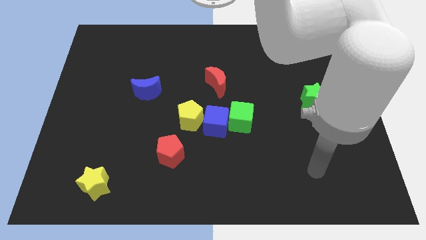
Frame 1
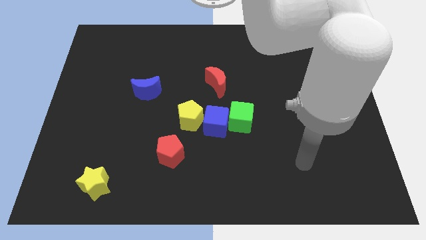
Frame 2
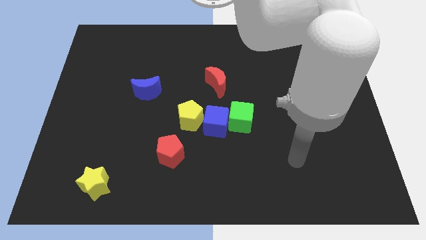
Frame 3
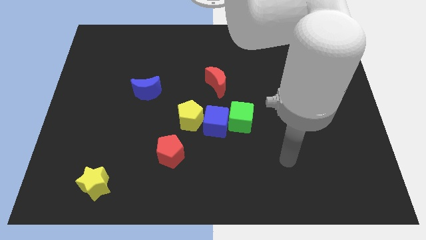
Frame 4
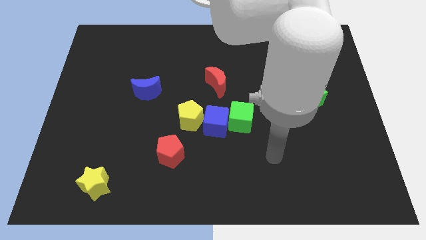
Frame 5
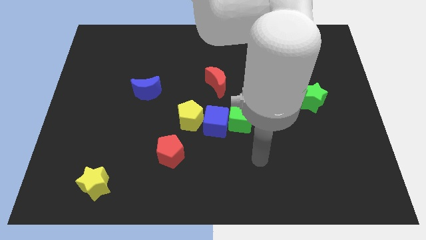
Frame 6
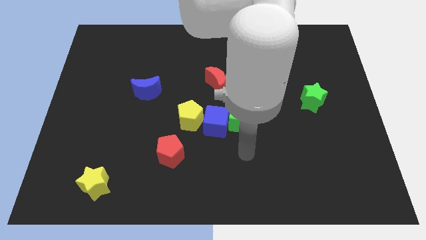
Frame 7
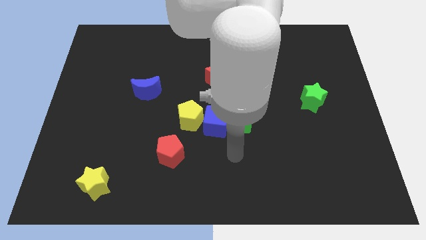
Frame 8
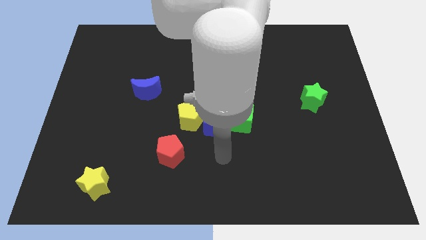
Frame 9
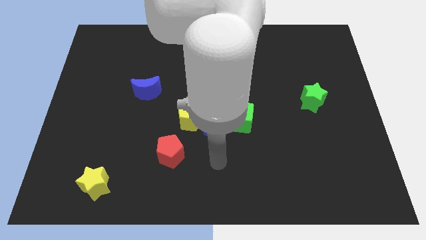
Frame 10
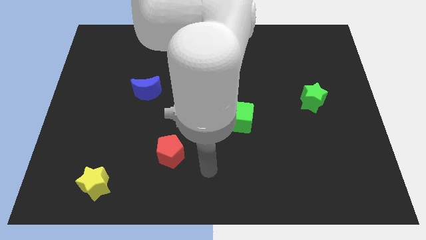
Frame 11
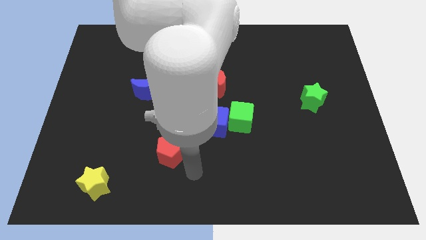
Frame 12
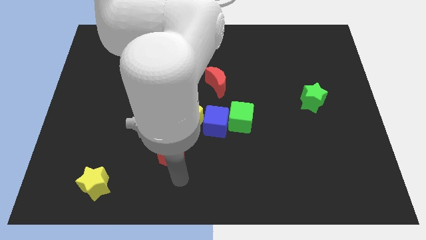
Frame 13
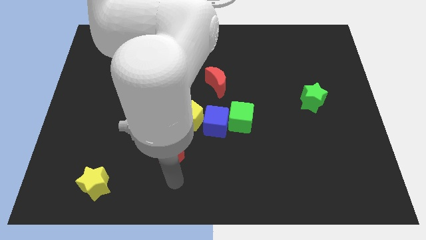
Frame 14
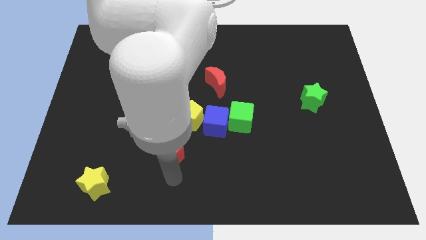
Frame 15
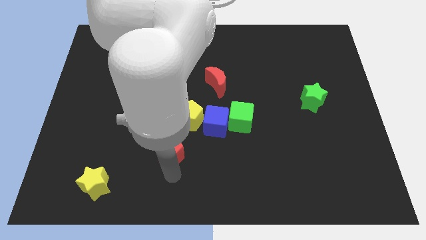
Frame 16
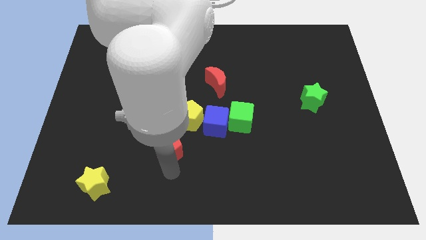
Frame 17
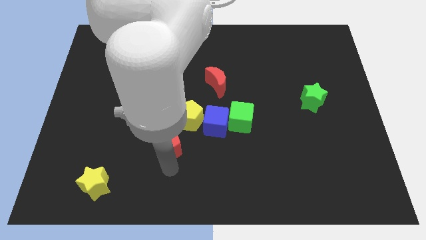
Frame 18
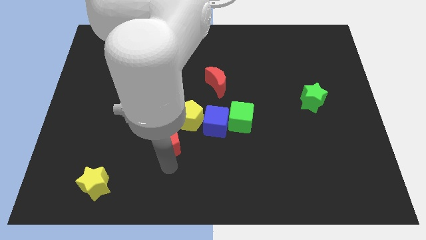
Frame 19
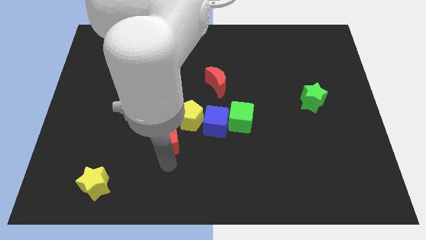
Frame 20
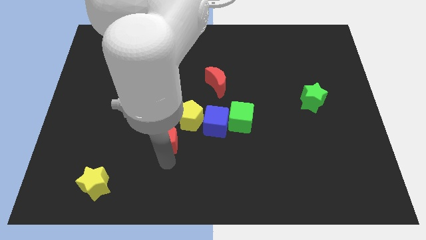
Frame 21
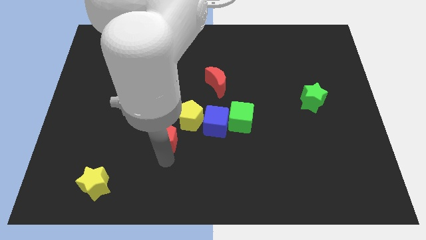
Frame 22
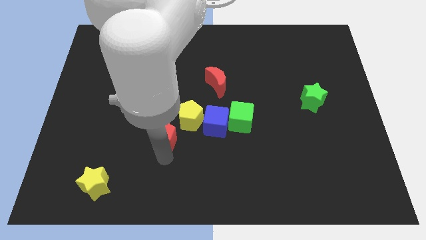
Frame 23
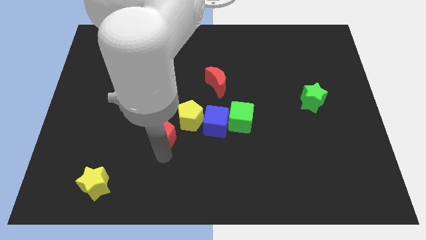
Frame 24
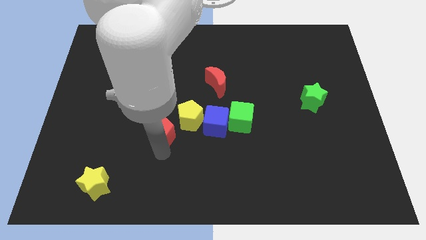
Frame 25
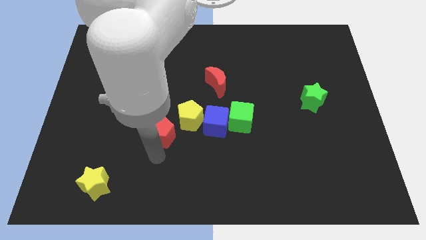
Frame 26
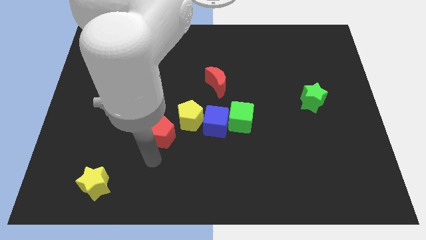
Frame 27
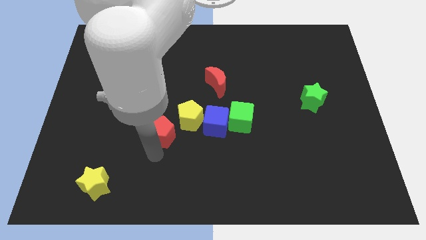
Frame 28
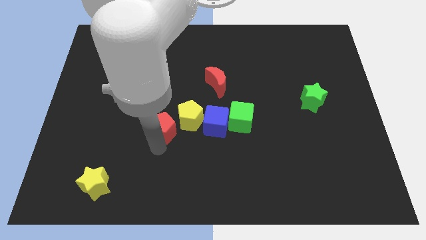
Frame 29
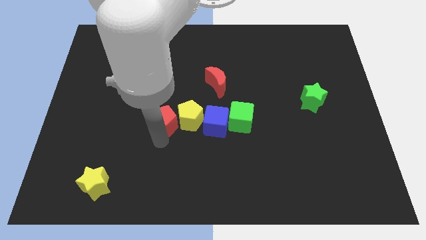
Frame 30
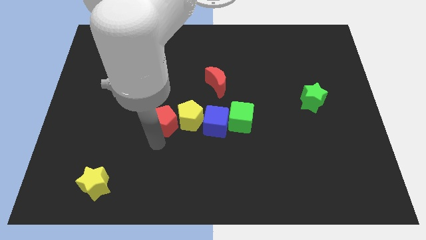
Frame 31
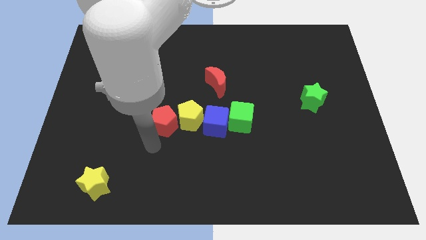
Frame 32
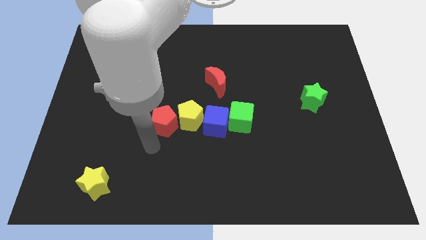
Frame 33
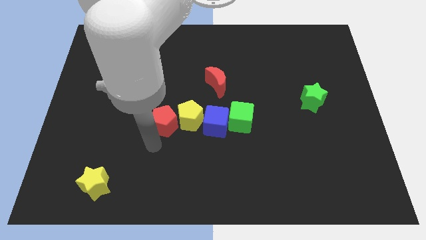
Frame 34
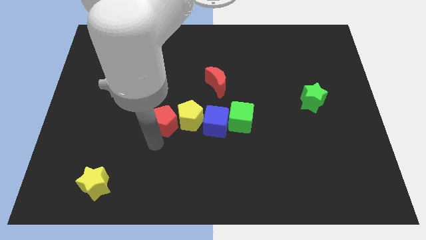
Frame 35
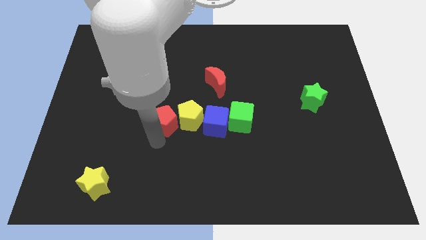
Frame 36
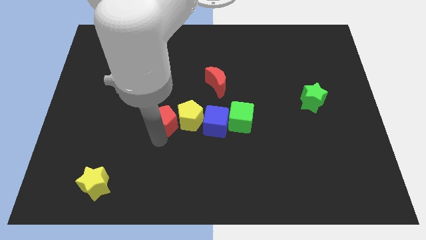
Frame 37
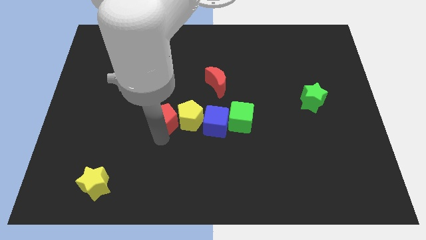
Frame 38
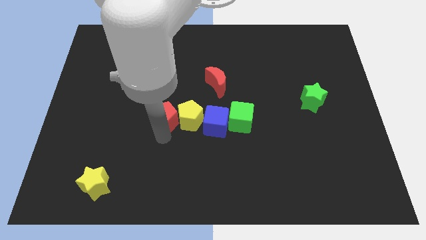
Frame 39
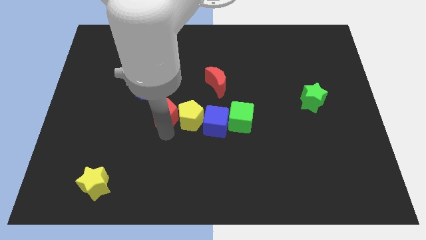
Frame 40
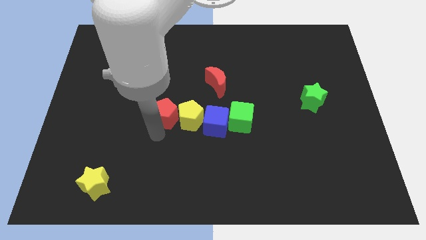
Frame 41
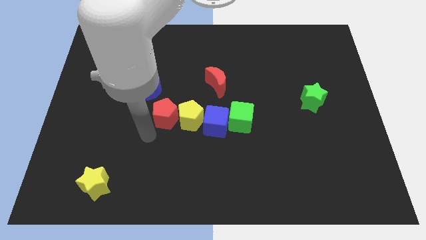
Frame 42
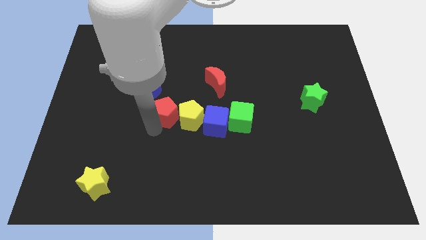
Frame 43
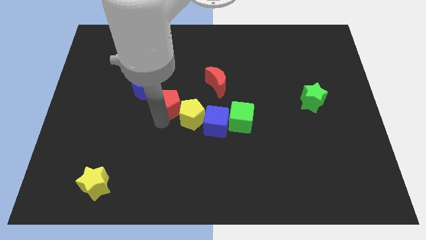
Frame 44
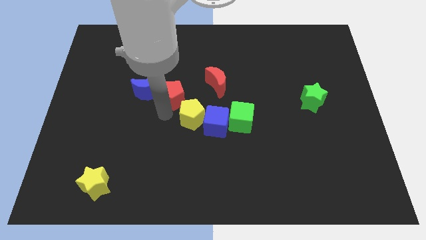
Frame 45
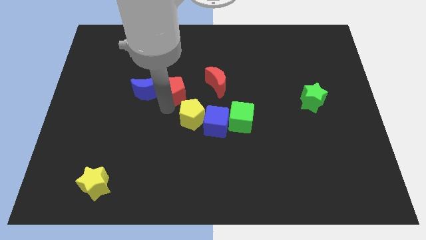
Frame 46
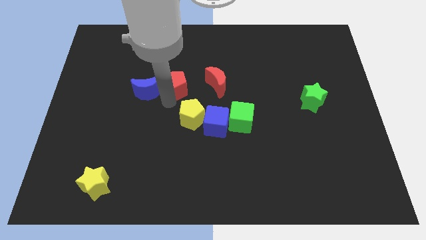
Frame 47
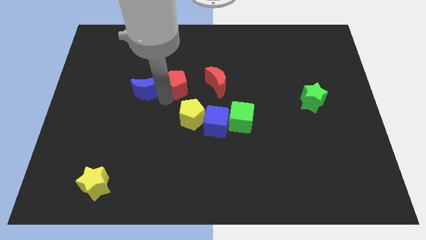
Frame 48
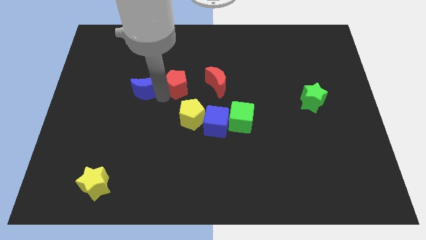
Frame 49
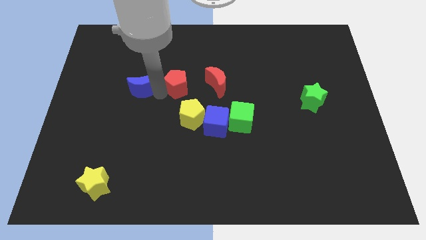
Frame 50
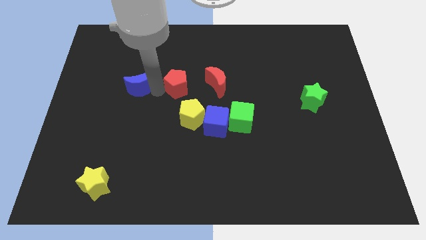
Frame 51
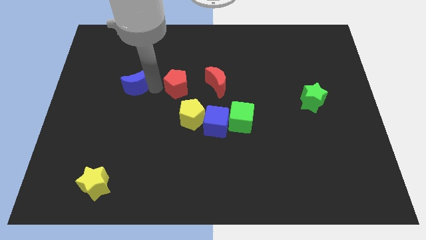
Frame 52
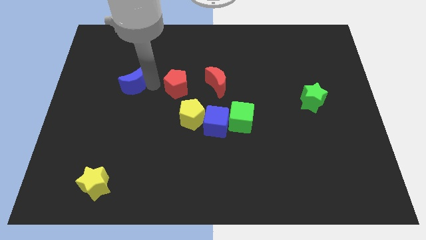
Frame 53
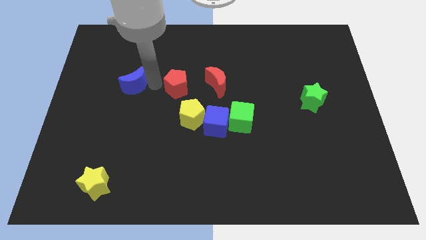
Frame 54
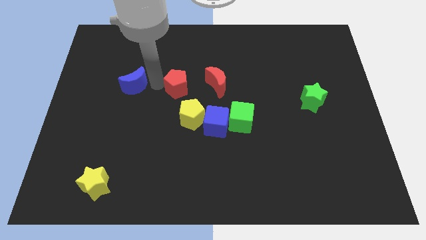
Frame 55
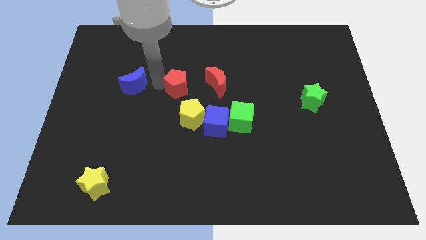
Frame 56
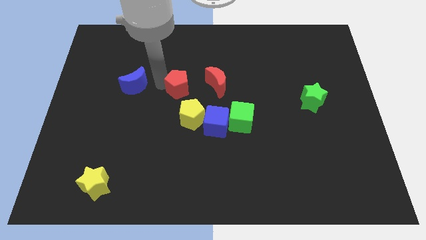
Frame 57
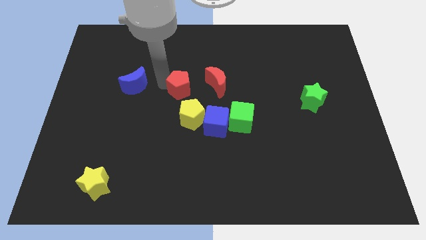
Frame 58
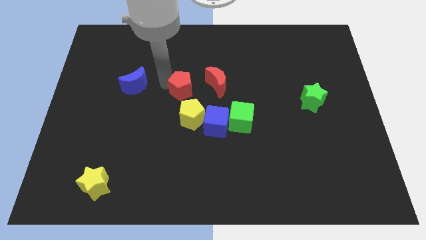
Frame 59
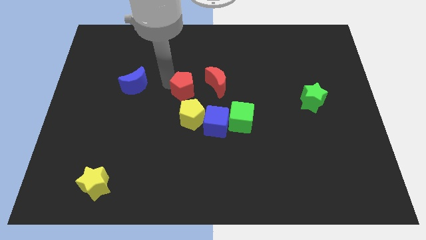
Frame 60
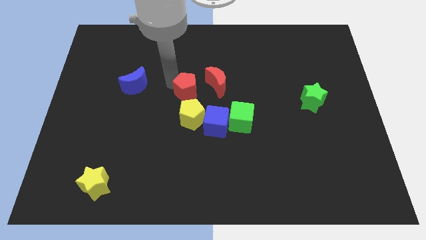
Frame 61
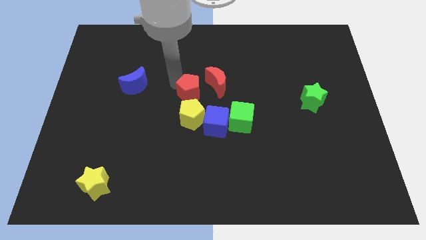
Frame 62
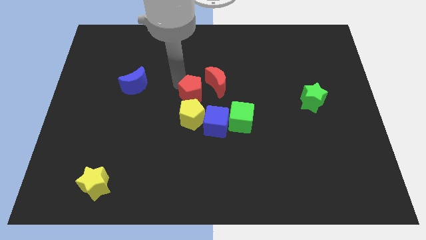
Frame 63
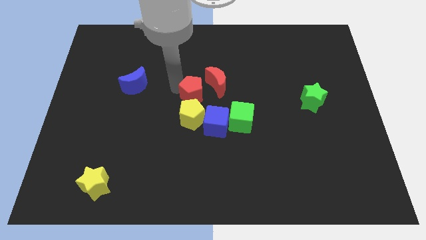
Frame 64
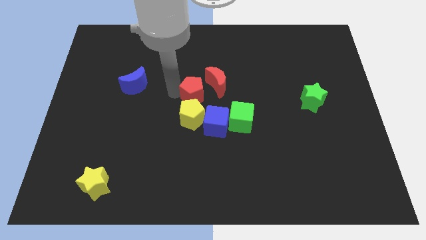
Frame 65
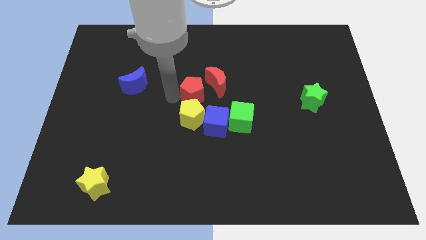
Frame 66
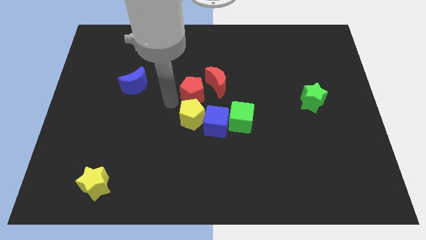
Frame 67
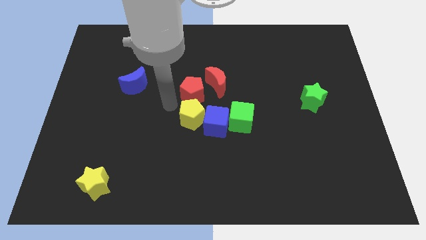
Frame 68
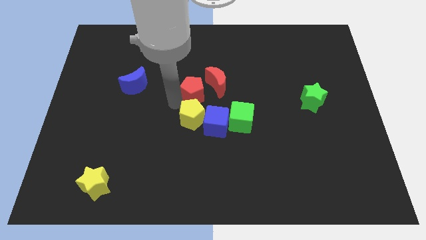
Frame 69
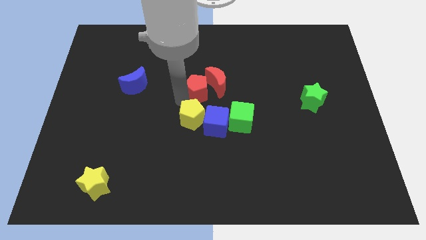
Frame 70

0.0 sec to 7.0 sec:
slide the red pentagon towards the red moon

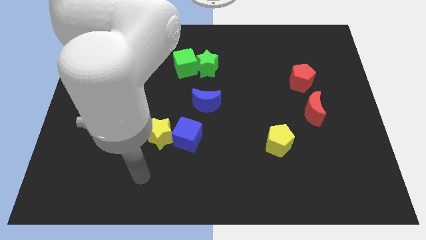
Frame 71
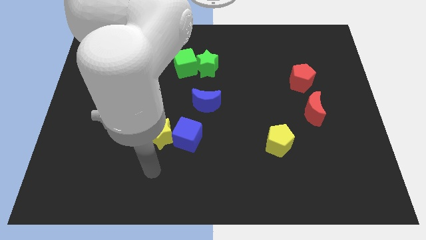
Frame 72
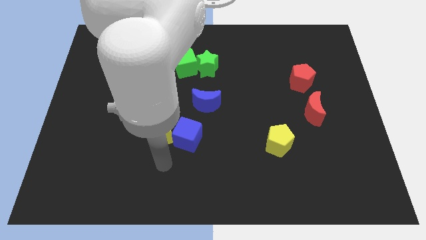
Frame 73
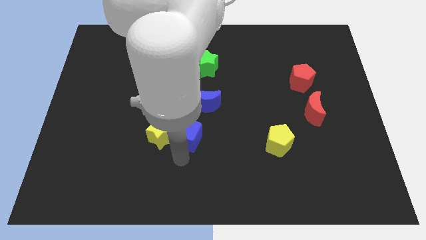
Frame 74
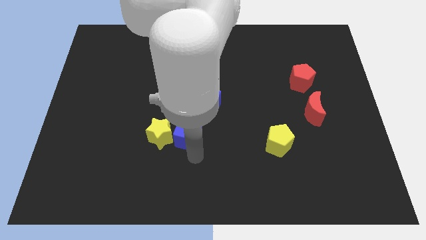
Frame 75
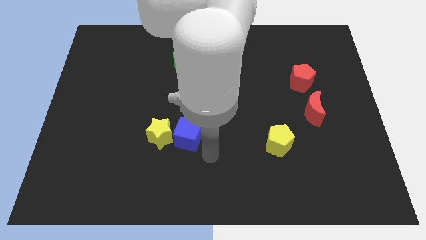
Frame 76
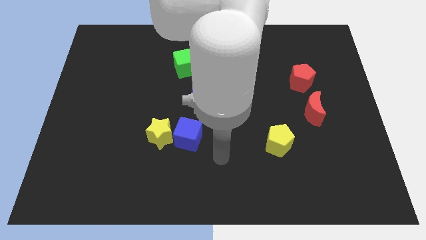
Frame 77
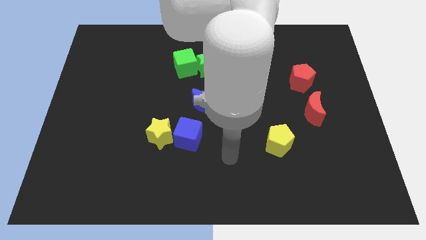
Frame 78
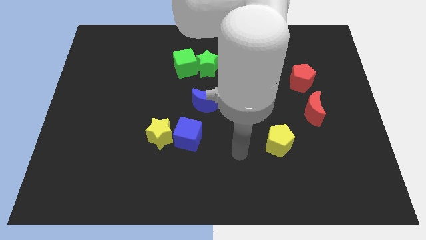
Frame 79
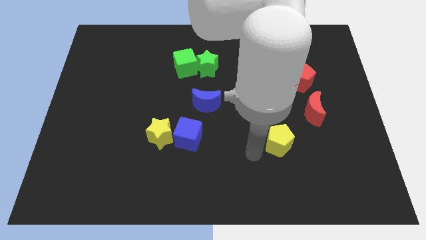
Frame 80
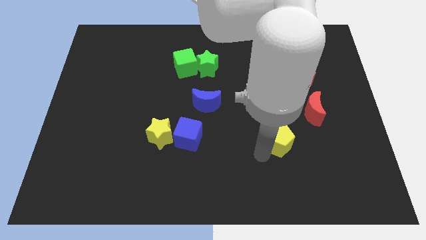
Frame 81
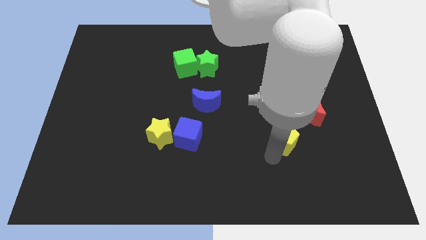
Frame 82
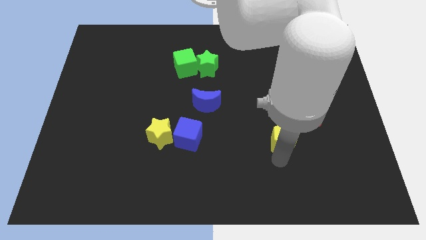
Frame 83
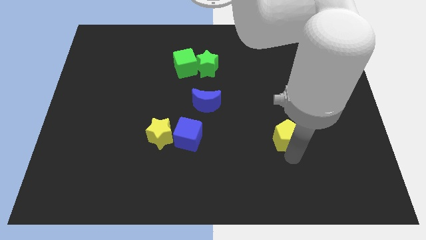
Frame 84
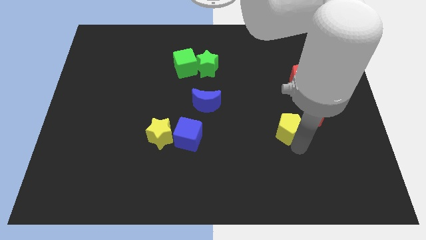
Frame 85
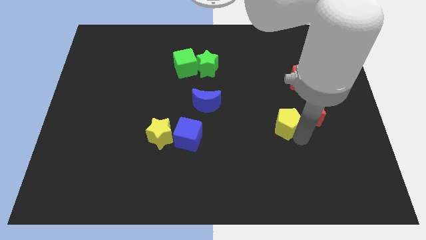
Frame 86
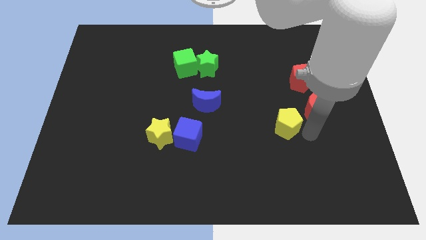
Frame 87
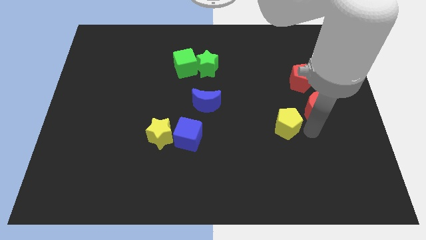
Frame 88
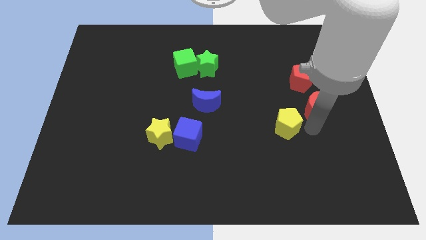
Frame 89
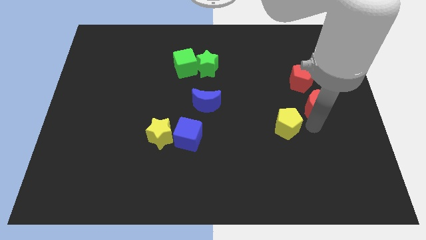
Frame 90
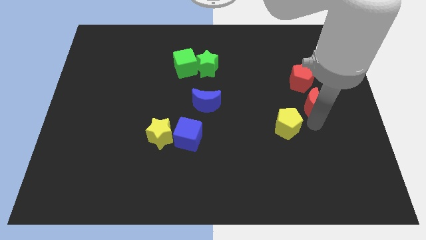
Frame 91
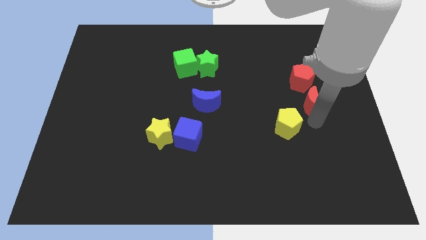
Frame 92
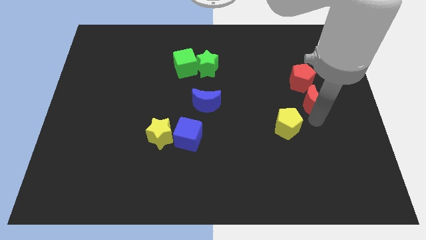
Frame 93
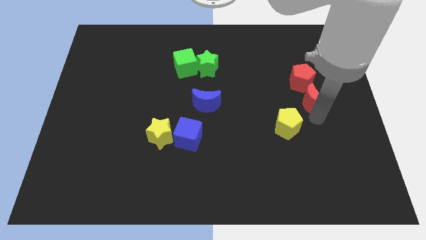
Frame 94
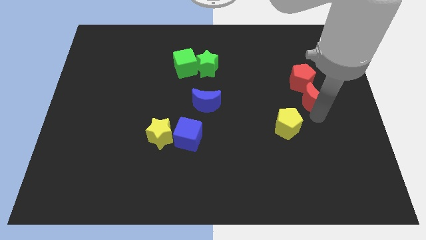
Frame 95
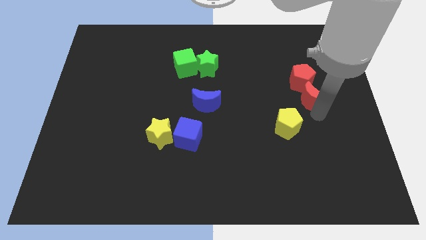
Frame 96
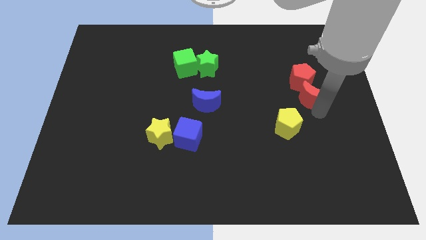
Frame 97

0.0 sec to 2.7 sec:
slide the red moon close to the red pentagon
